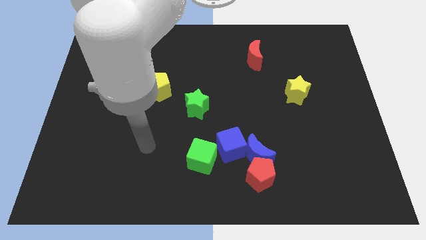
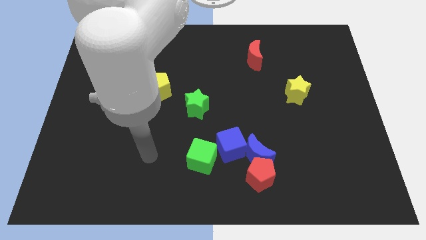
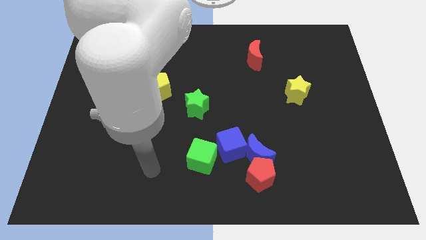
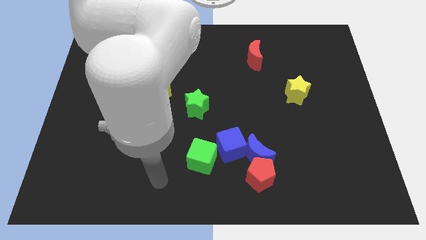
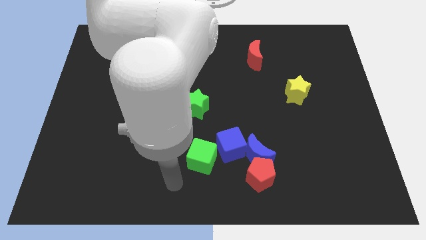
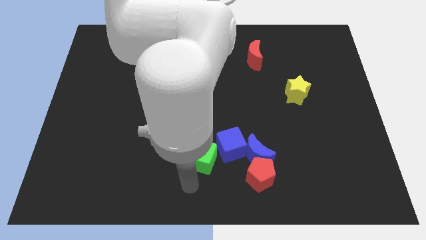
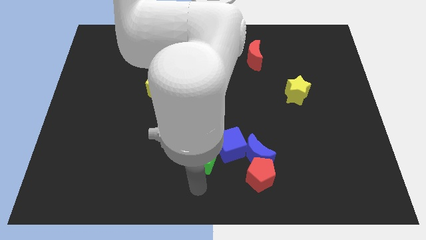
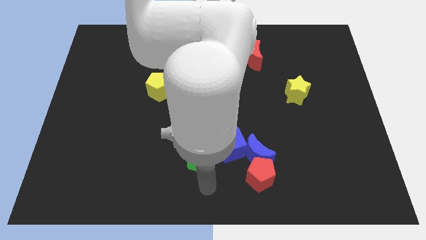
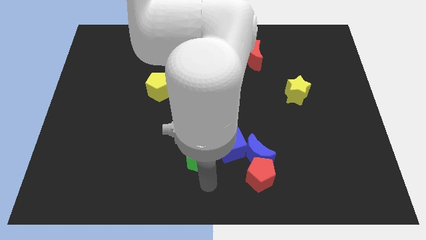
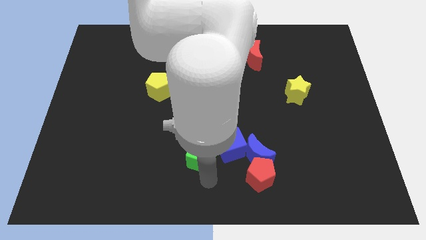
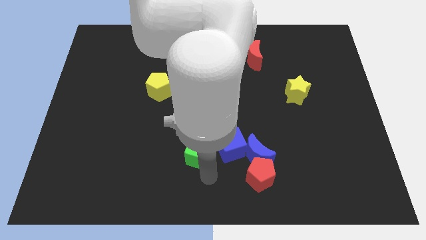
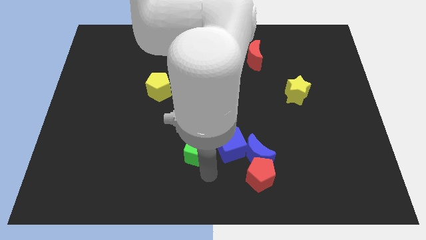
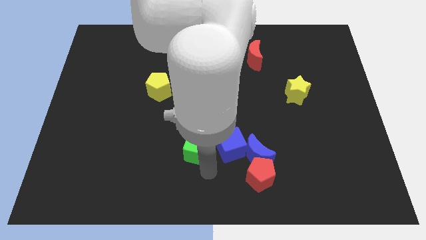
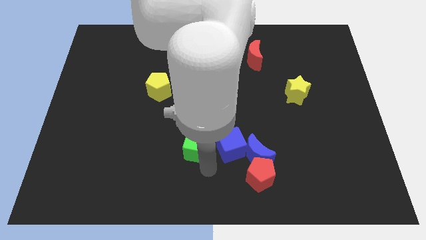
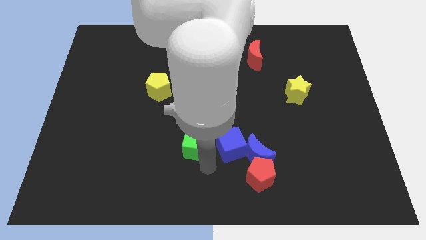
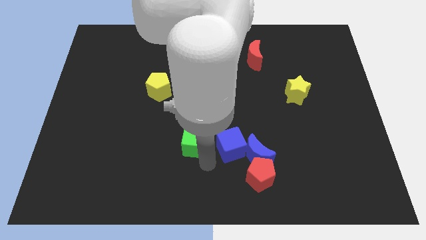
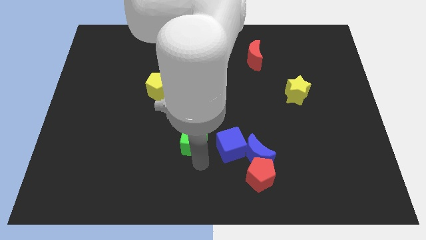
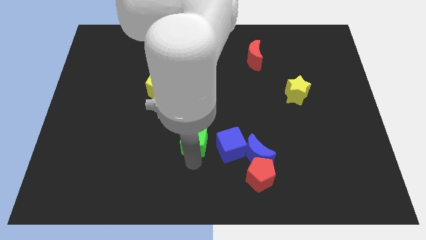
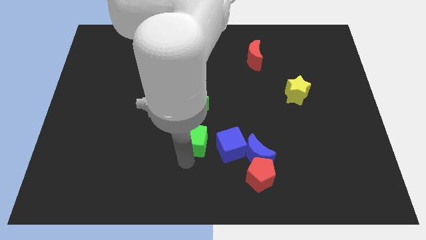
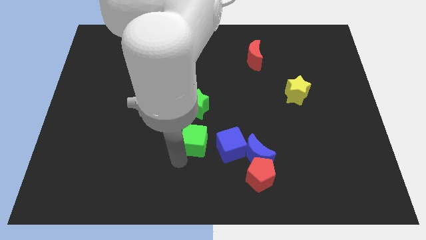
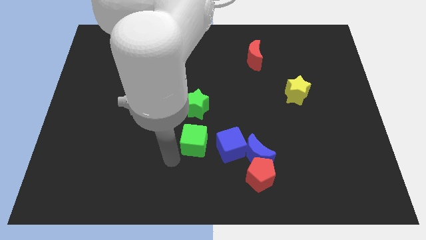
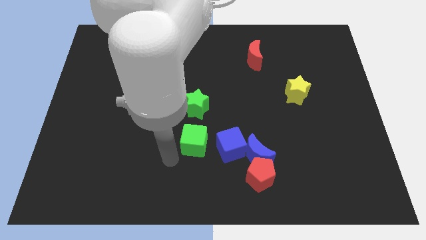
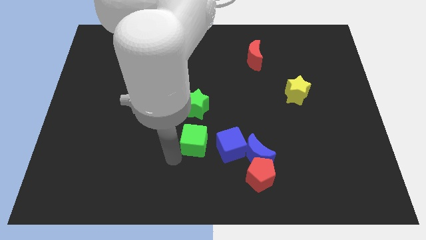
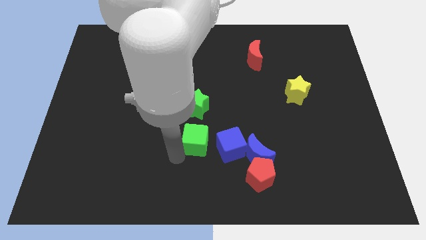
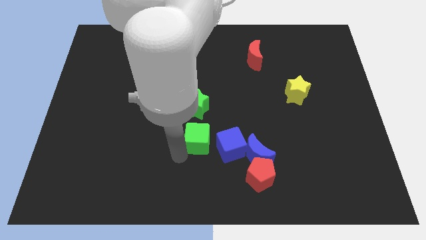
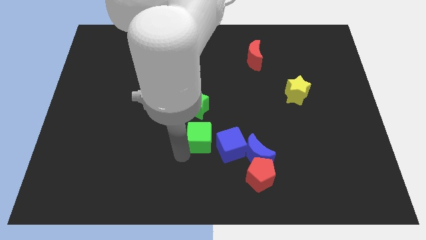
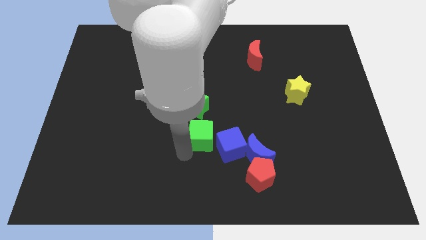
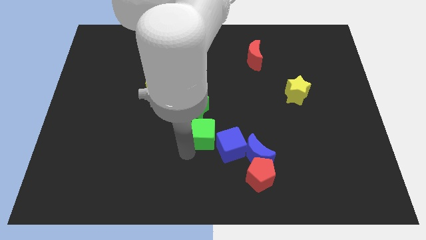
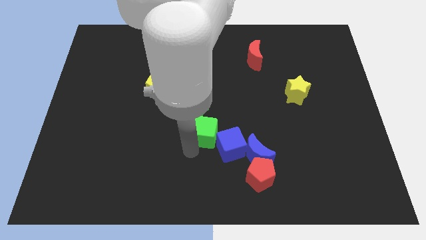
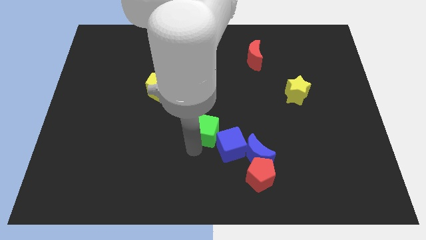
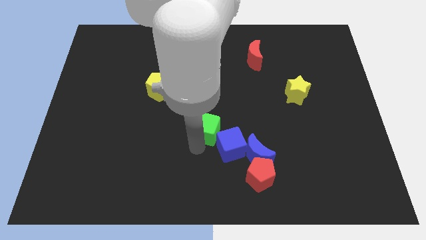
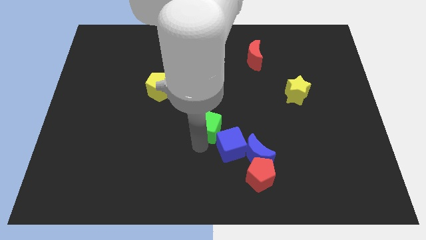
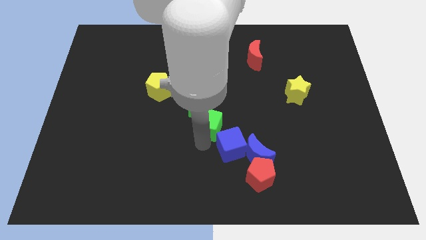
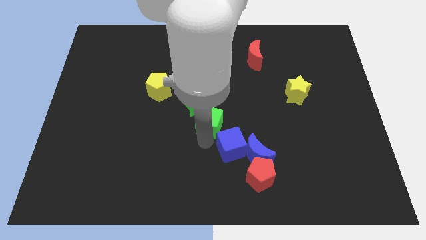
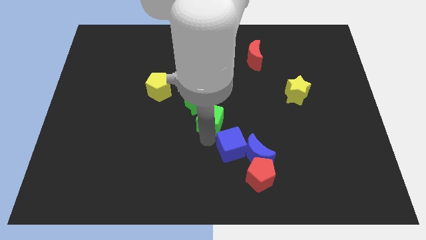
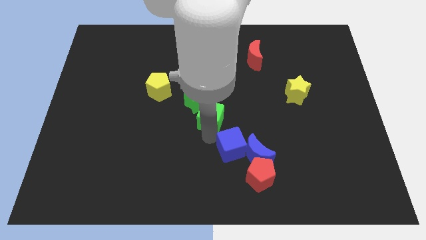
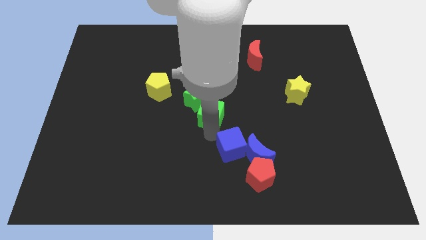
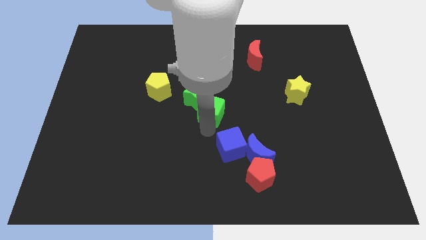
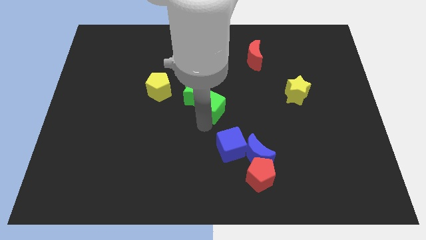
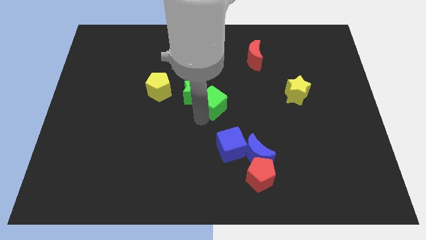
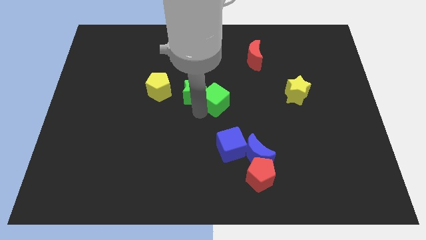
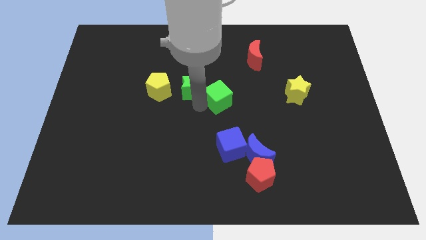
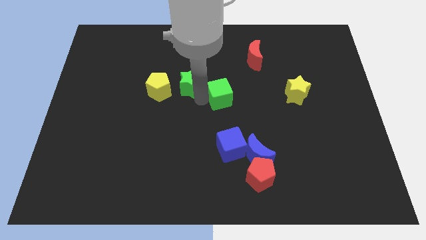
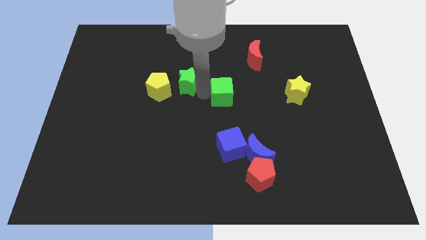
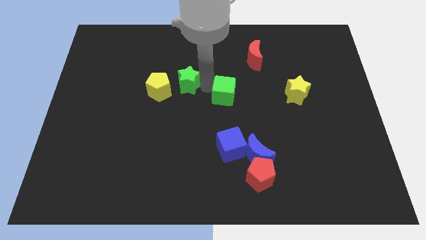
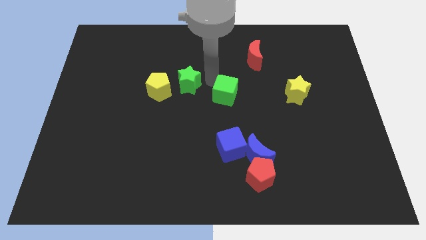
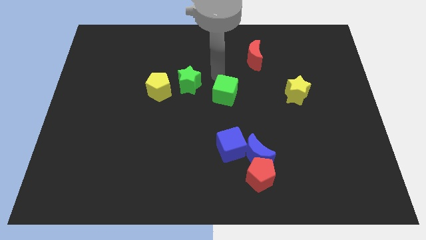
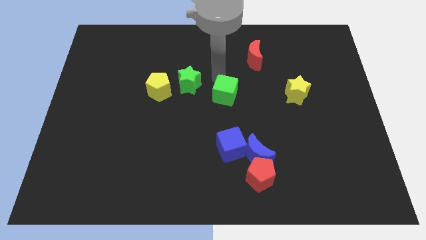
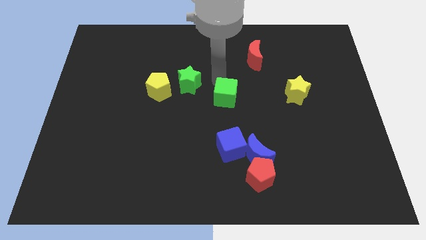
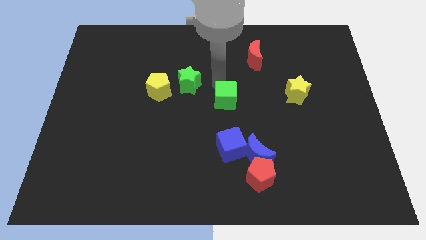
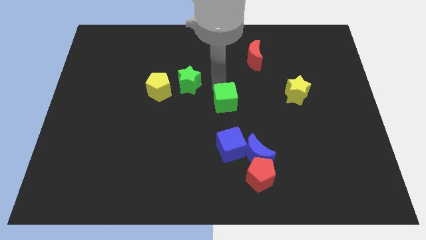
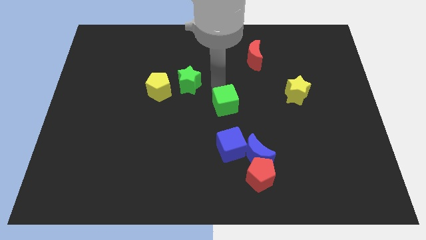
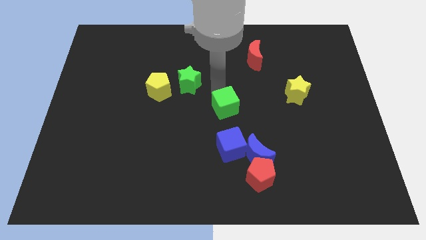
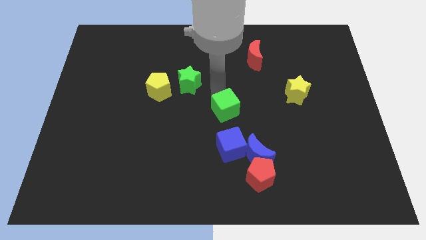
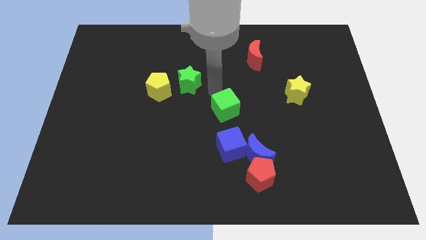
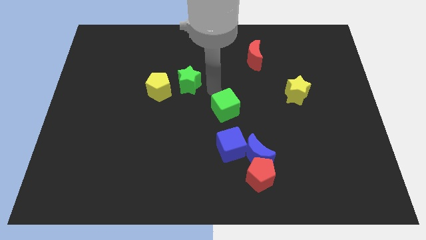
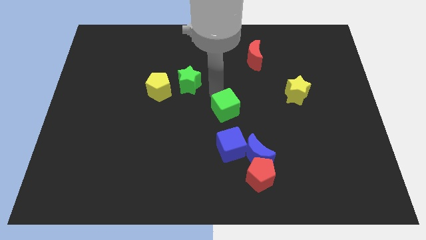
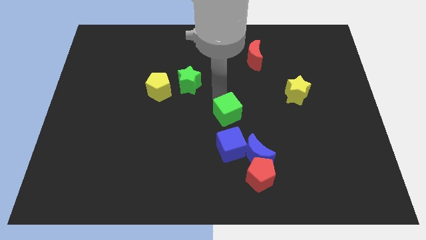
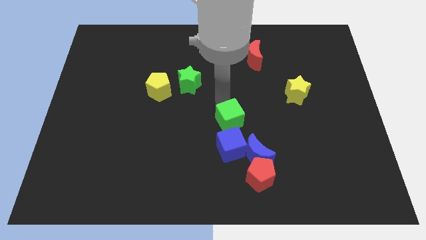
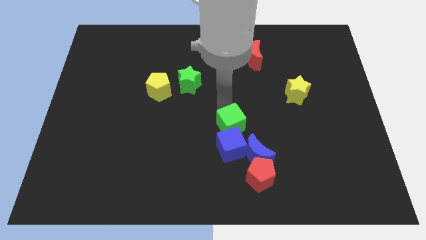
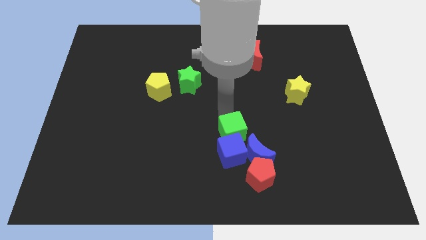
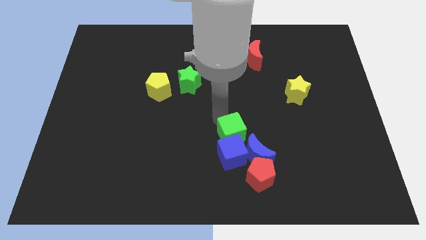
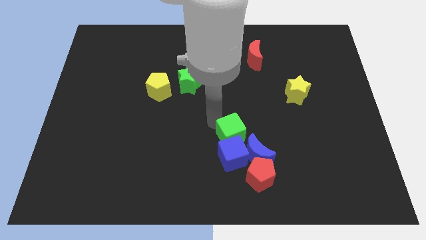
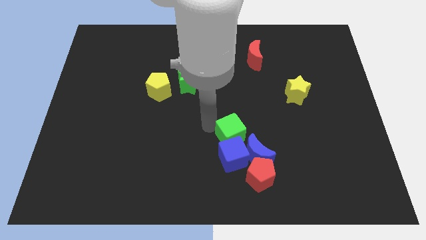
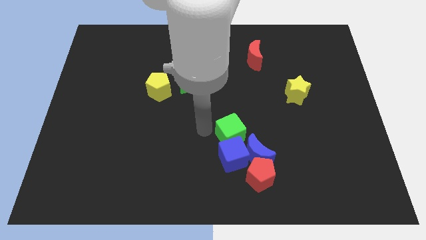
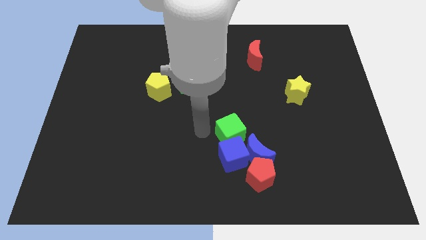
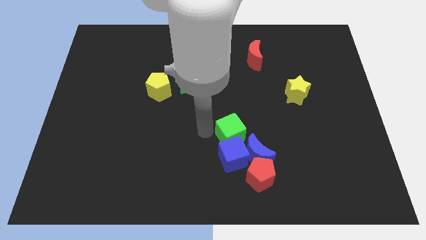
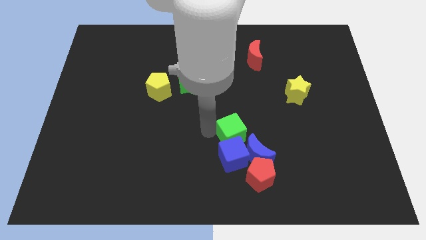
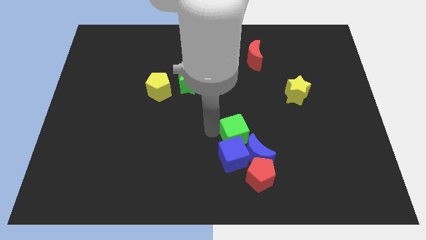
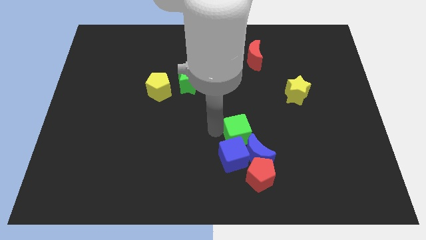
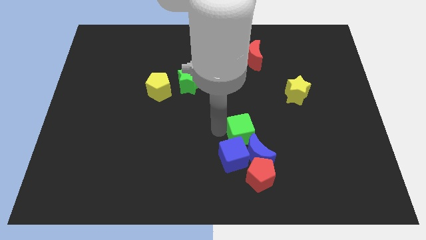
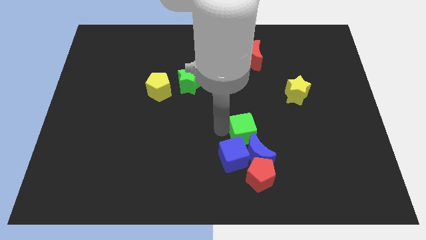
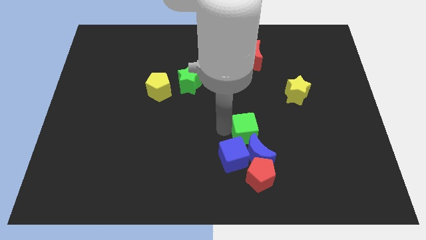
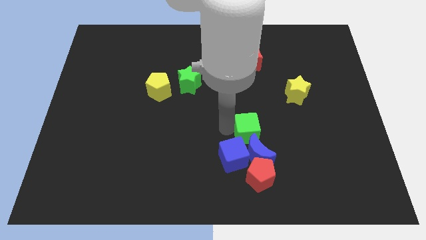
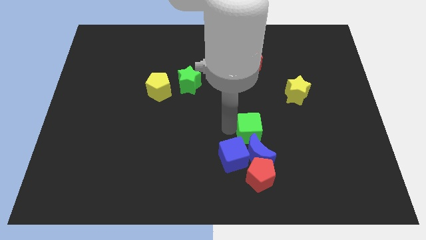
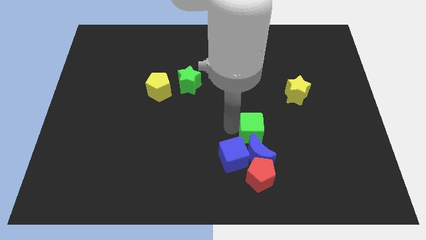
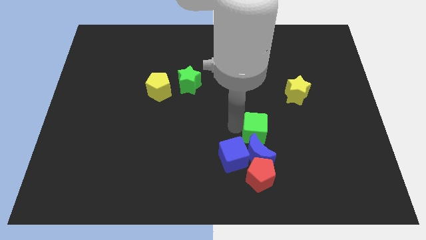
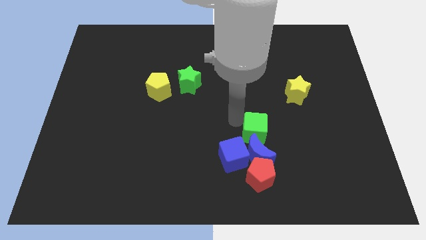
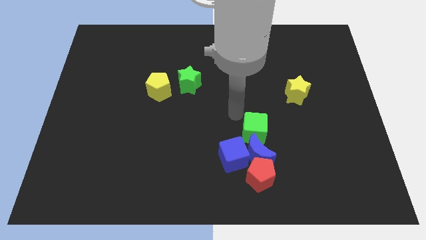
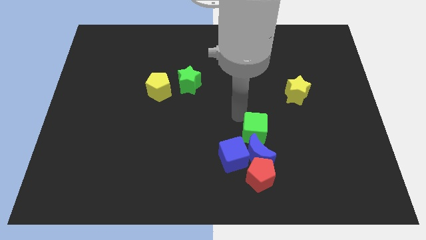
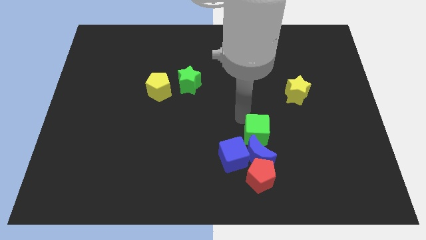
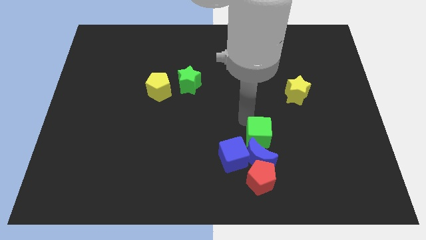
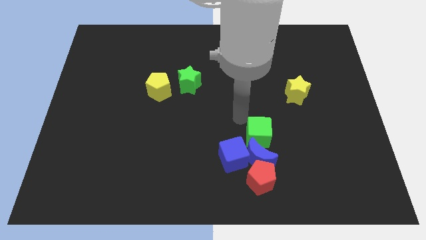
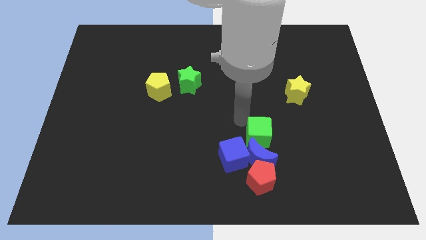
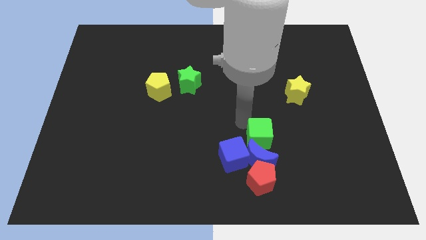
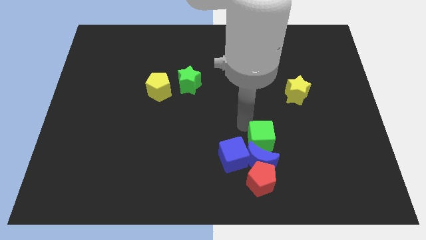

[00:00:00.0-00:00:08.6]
push the green cube to the right of the blue cube
